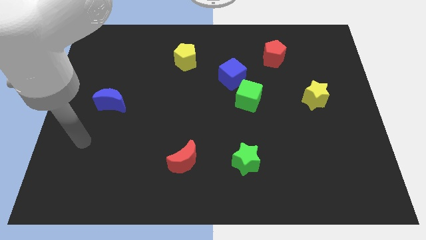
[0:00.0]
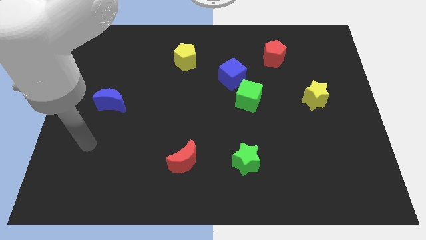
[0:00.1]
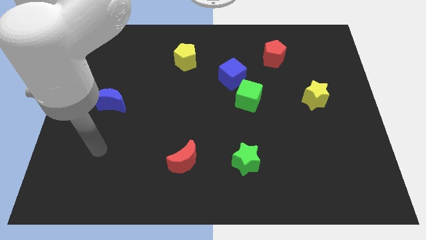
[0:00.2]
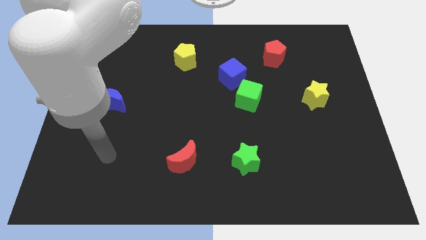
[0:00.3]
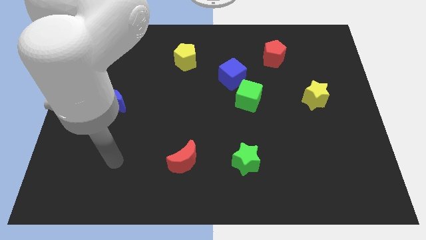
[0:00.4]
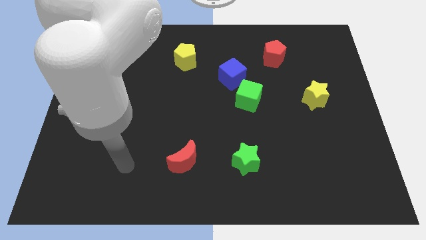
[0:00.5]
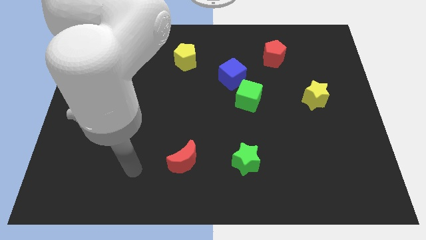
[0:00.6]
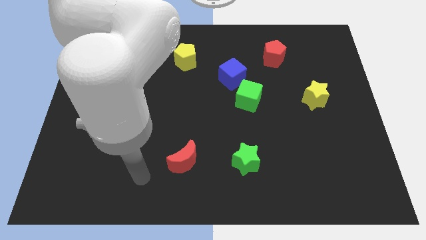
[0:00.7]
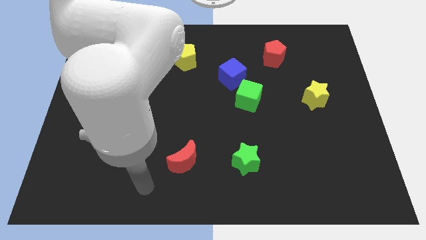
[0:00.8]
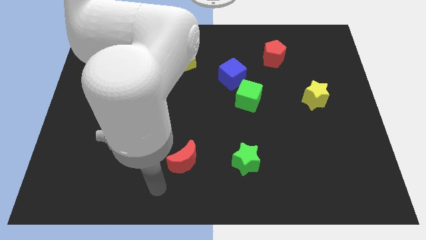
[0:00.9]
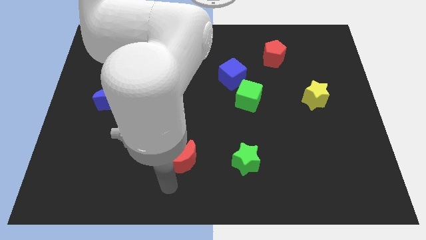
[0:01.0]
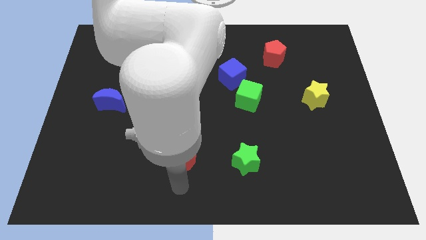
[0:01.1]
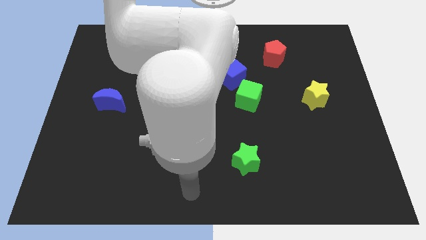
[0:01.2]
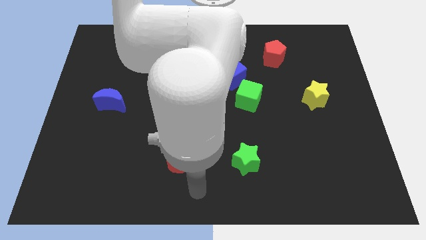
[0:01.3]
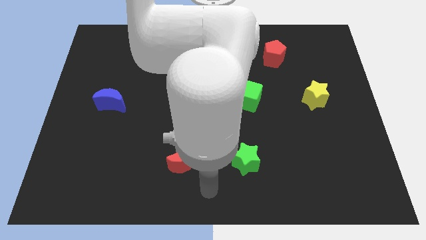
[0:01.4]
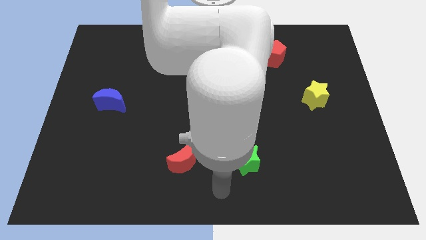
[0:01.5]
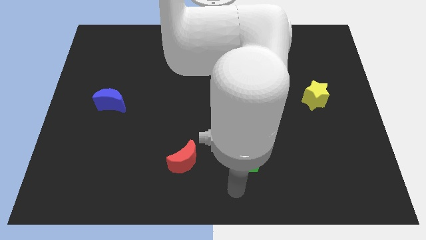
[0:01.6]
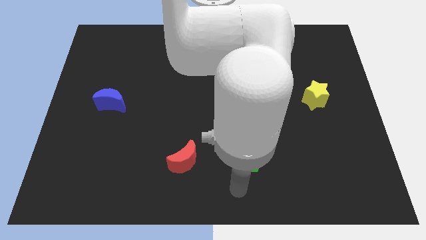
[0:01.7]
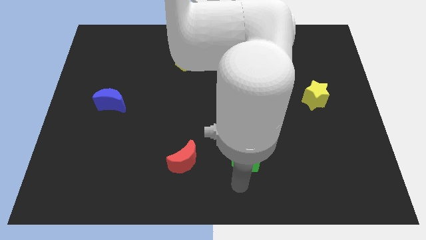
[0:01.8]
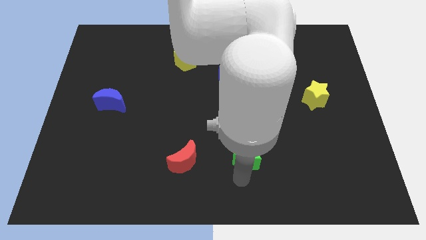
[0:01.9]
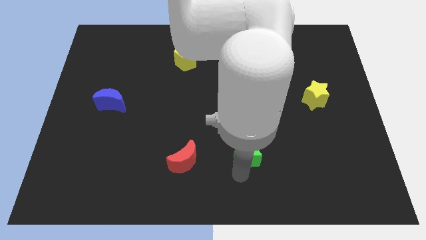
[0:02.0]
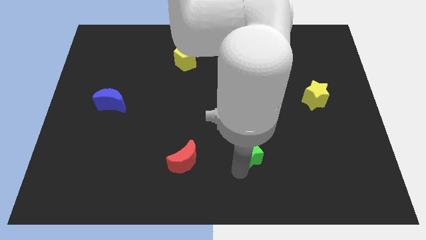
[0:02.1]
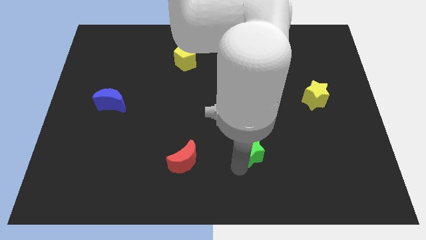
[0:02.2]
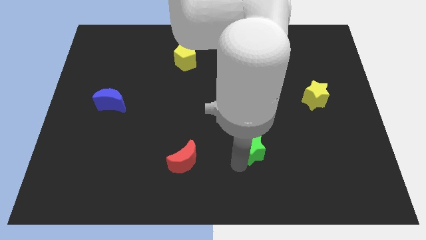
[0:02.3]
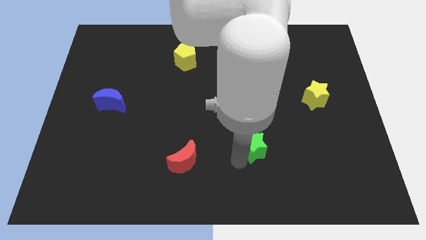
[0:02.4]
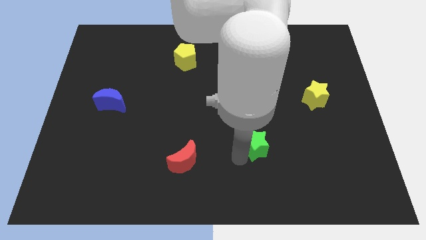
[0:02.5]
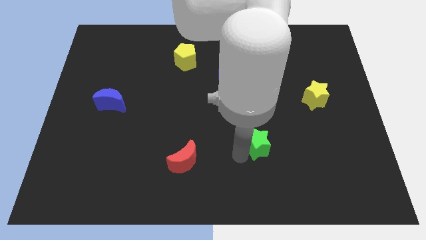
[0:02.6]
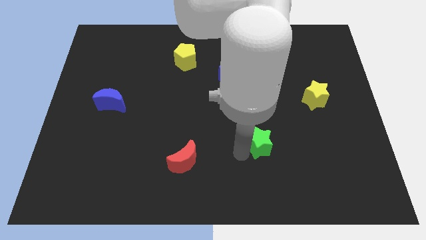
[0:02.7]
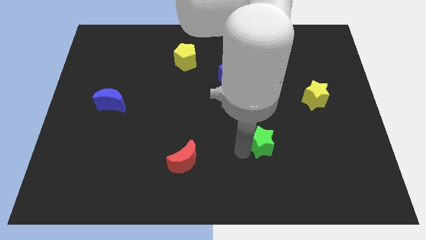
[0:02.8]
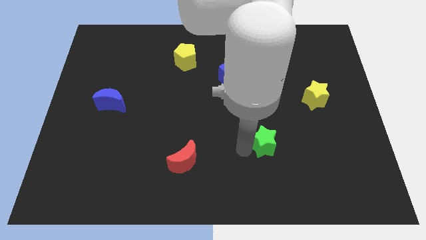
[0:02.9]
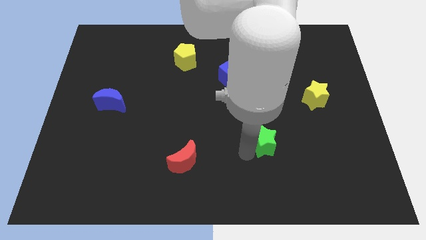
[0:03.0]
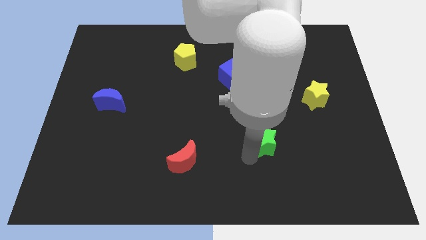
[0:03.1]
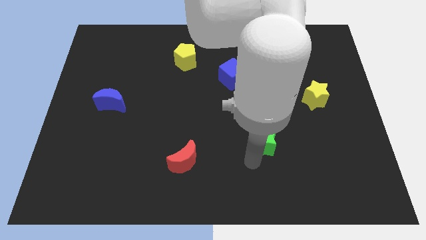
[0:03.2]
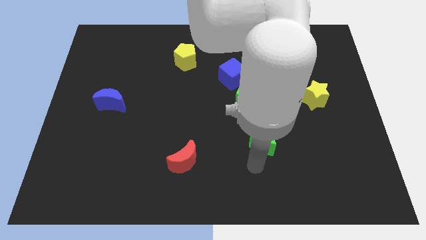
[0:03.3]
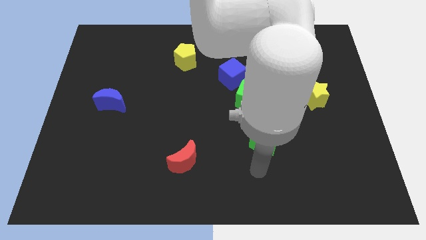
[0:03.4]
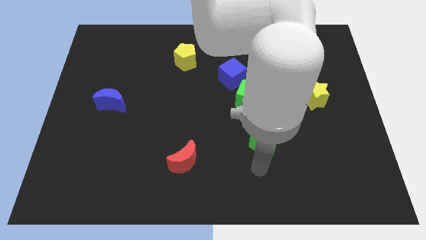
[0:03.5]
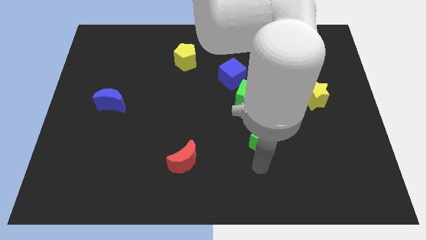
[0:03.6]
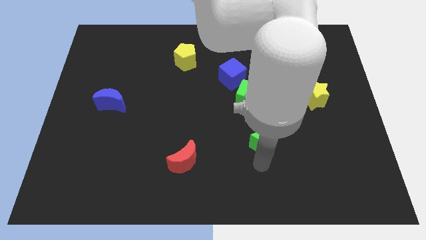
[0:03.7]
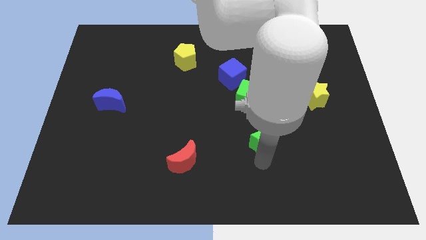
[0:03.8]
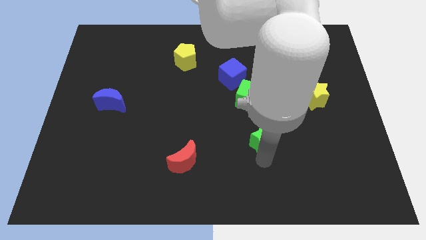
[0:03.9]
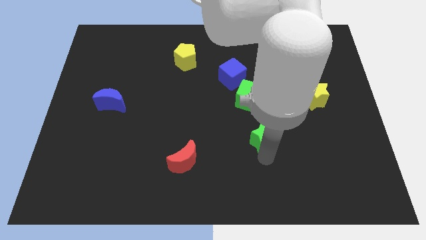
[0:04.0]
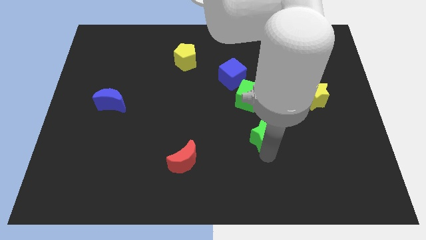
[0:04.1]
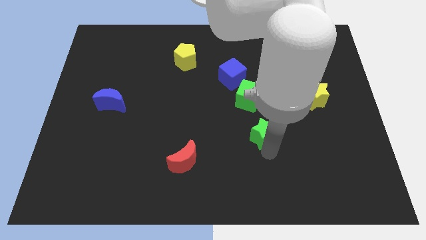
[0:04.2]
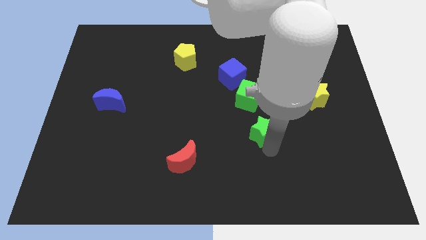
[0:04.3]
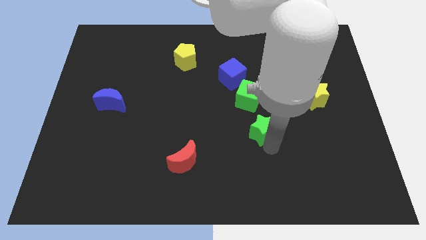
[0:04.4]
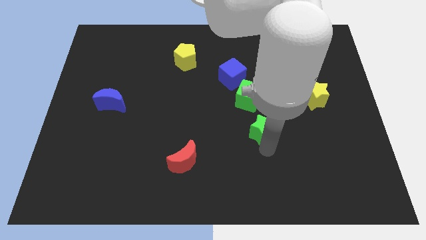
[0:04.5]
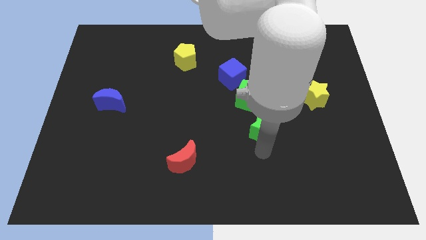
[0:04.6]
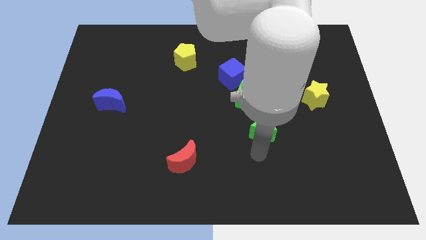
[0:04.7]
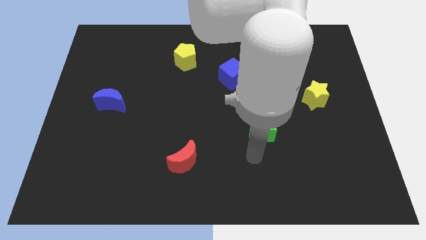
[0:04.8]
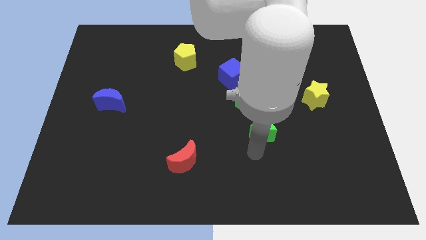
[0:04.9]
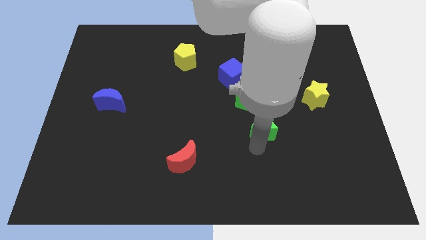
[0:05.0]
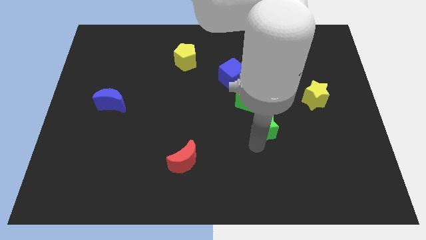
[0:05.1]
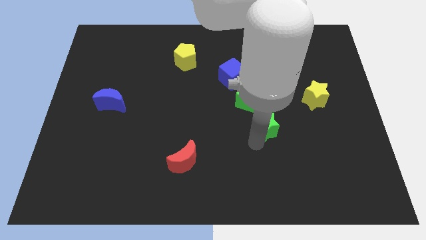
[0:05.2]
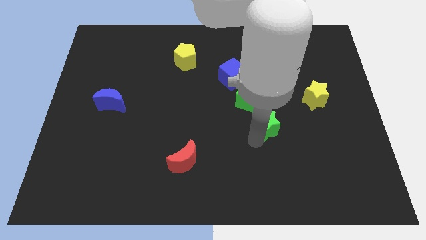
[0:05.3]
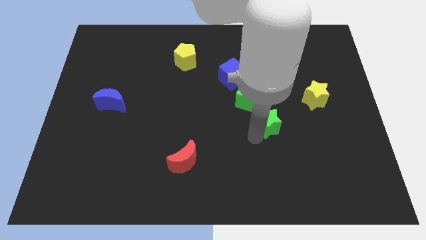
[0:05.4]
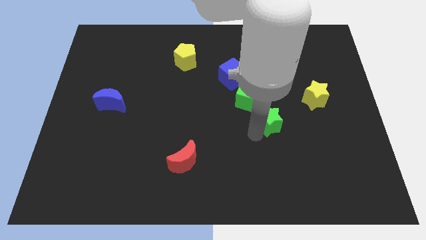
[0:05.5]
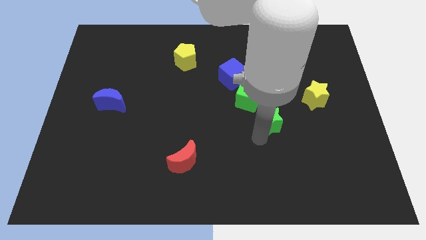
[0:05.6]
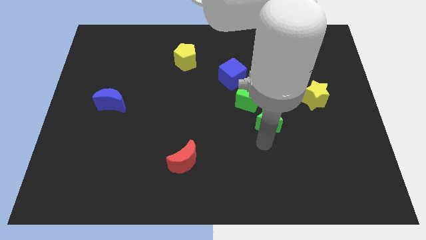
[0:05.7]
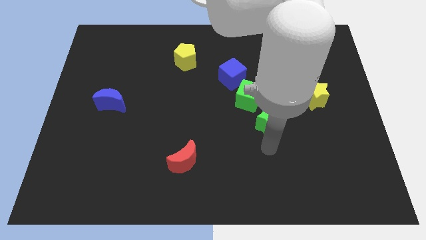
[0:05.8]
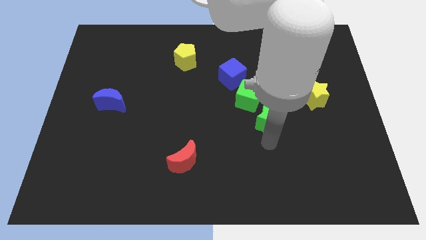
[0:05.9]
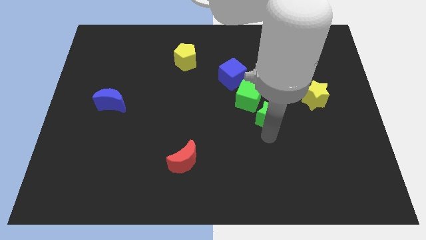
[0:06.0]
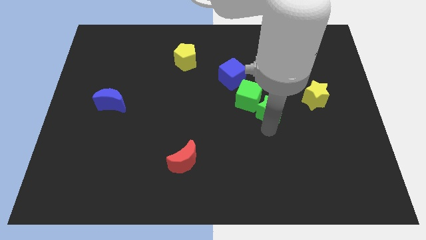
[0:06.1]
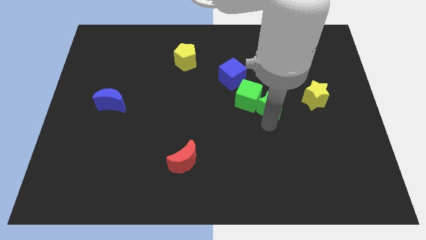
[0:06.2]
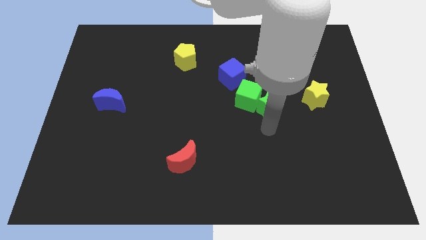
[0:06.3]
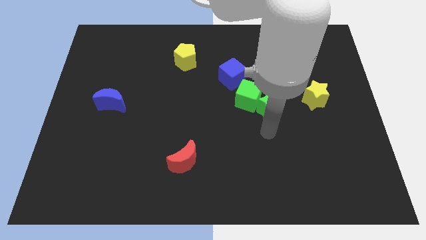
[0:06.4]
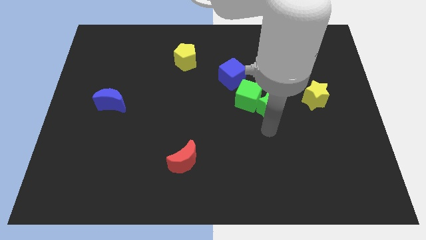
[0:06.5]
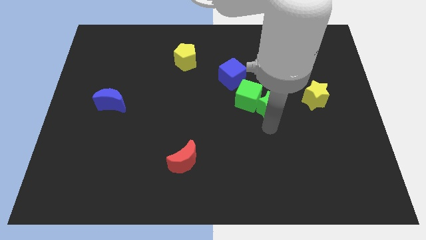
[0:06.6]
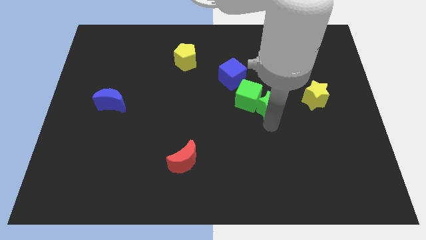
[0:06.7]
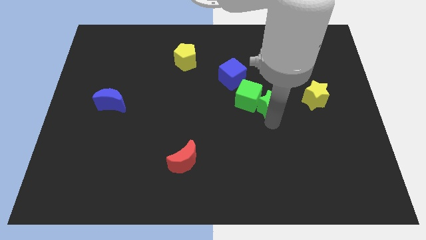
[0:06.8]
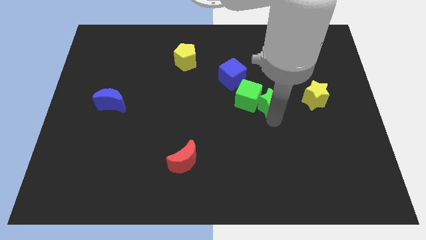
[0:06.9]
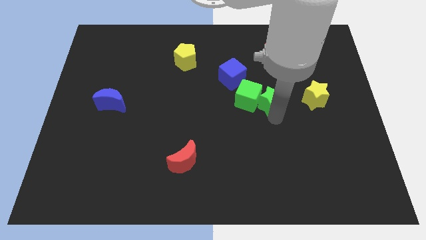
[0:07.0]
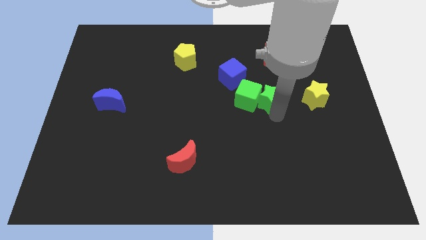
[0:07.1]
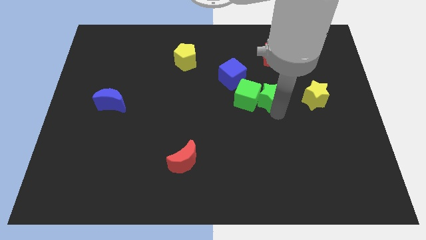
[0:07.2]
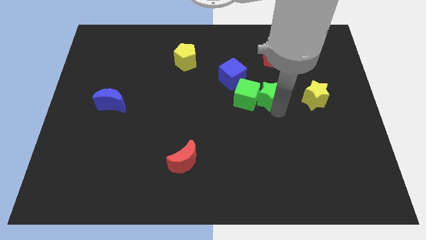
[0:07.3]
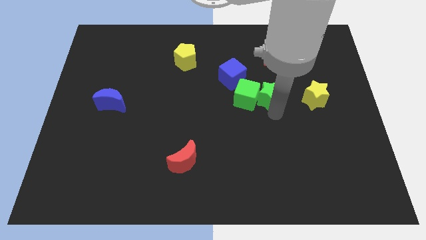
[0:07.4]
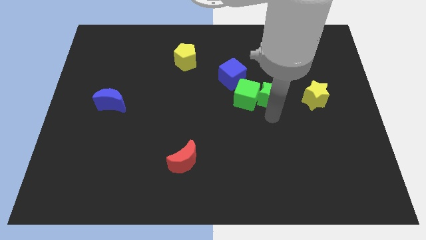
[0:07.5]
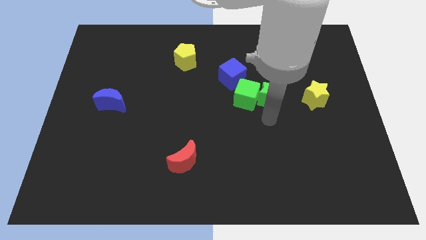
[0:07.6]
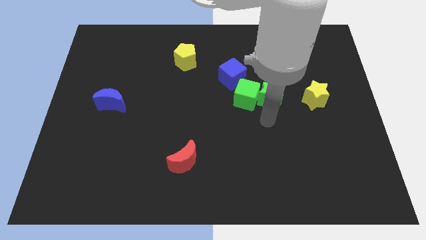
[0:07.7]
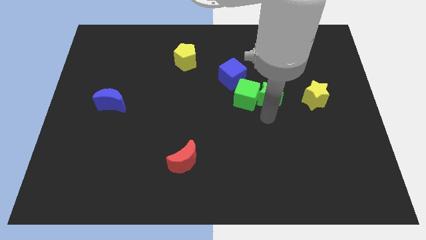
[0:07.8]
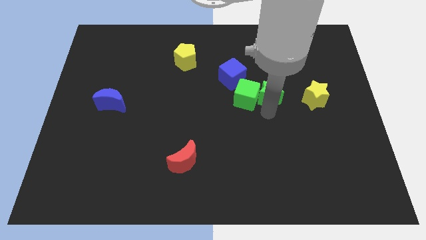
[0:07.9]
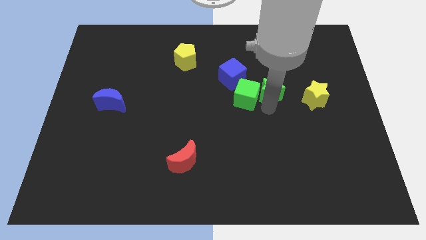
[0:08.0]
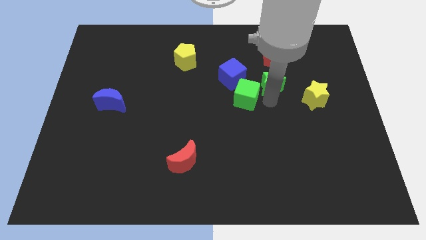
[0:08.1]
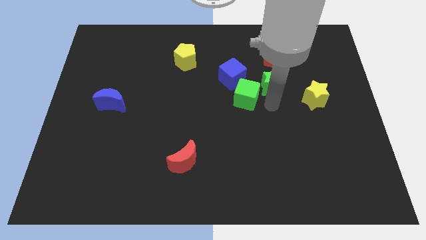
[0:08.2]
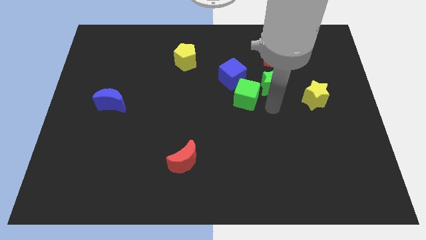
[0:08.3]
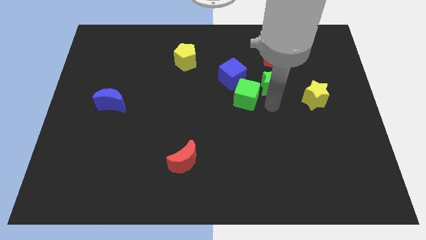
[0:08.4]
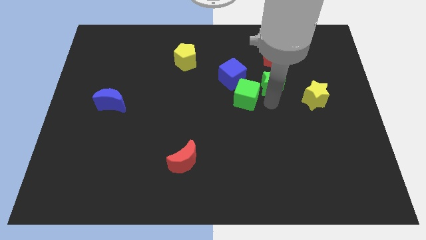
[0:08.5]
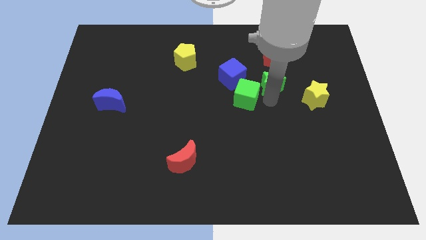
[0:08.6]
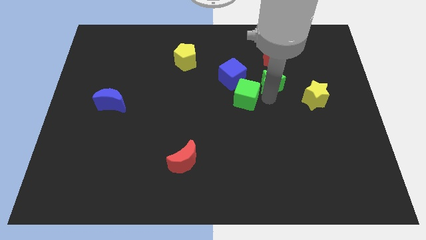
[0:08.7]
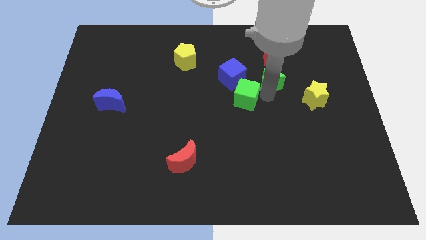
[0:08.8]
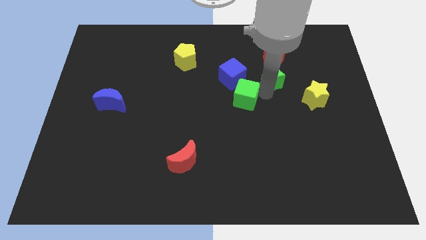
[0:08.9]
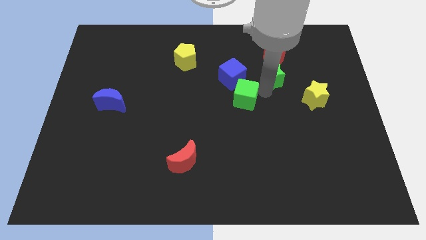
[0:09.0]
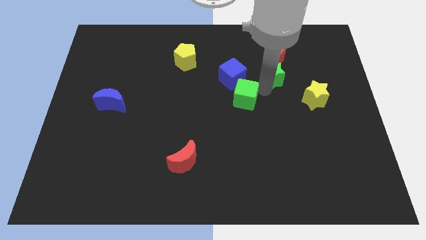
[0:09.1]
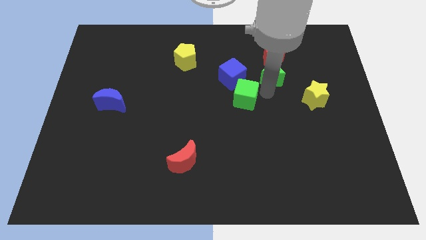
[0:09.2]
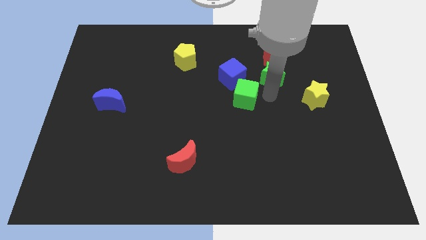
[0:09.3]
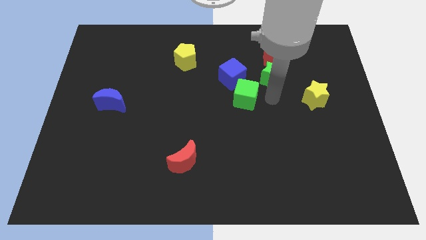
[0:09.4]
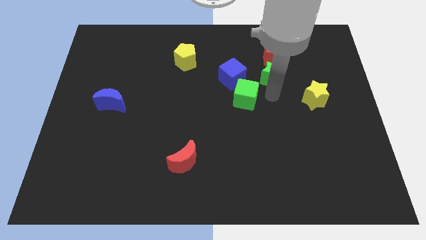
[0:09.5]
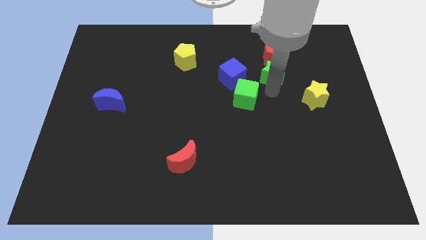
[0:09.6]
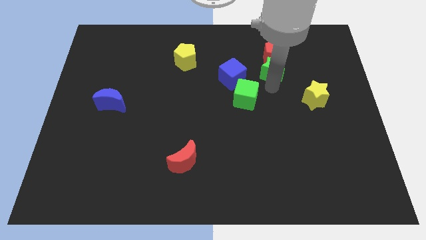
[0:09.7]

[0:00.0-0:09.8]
slide the green star next to the red pentagon
